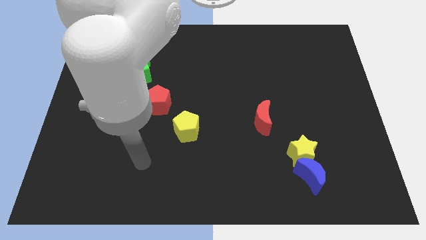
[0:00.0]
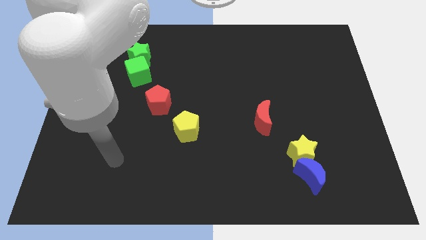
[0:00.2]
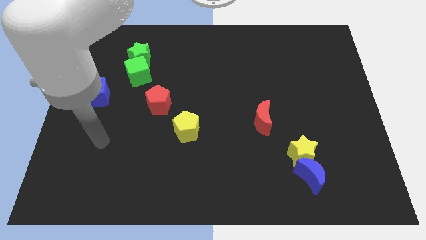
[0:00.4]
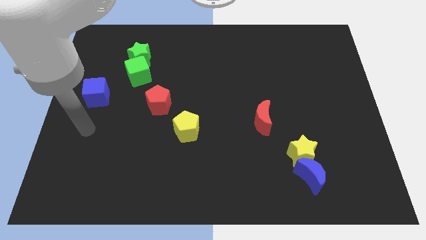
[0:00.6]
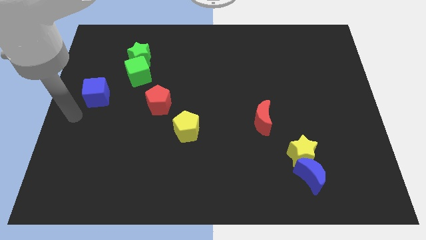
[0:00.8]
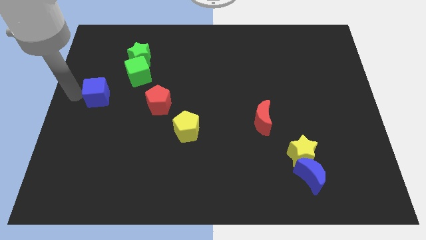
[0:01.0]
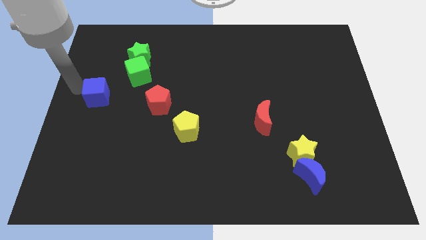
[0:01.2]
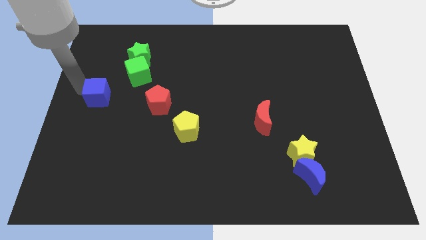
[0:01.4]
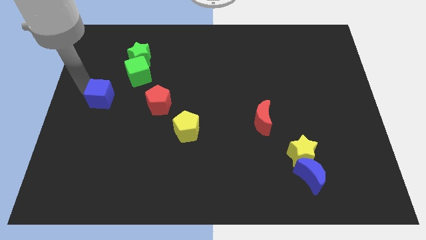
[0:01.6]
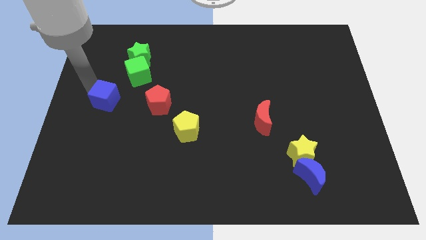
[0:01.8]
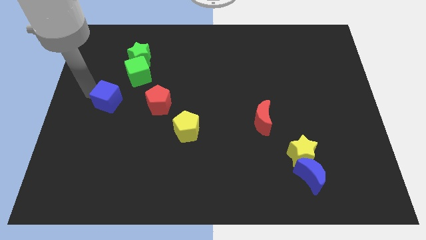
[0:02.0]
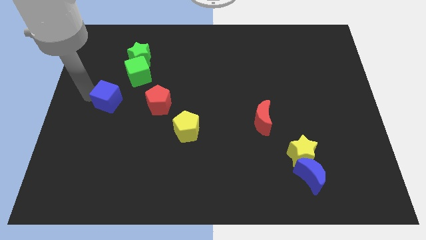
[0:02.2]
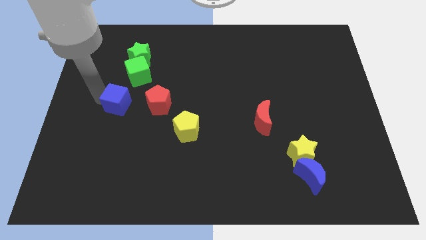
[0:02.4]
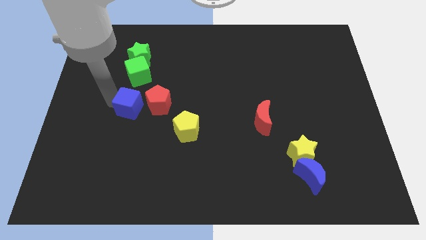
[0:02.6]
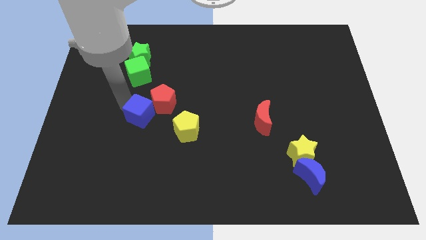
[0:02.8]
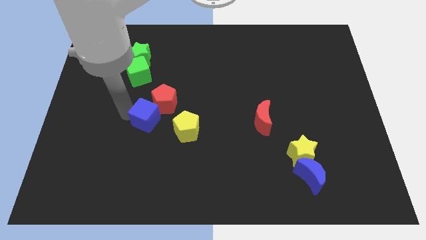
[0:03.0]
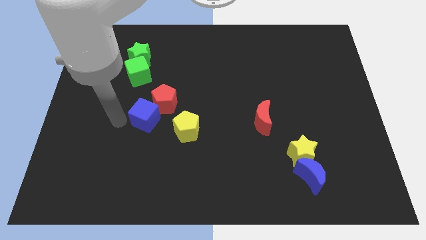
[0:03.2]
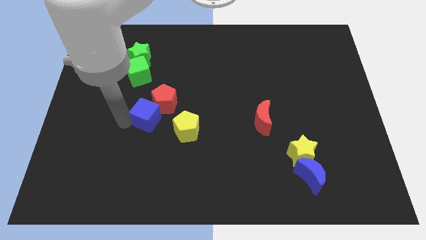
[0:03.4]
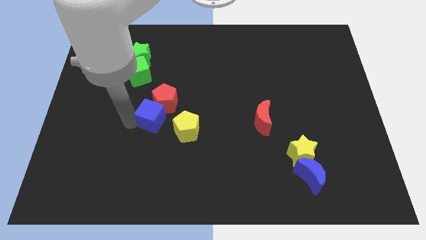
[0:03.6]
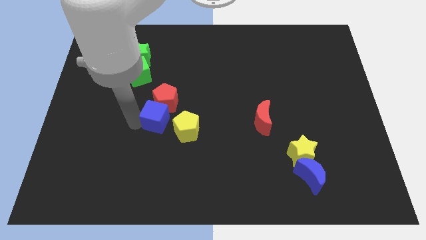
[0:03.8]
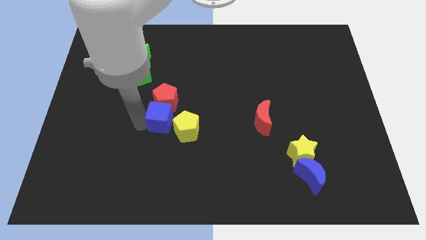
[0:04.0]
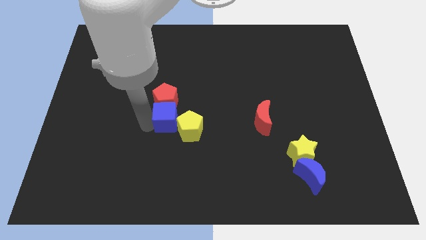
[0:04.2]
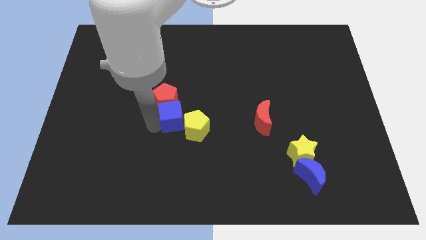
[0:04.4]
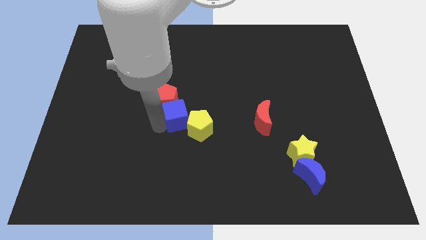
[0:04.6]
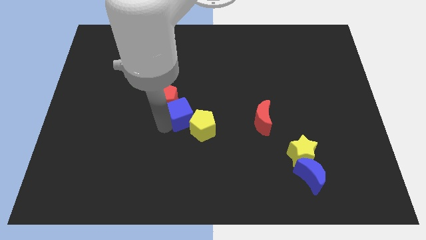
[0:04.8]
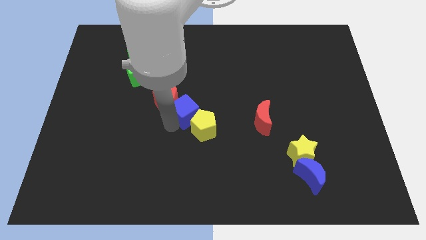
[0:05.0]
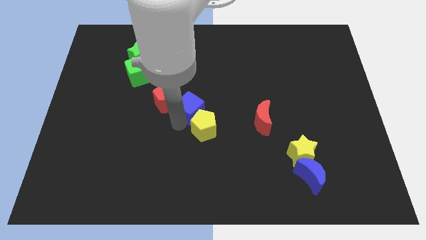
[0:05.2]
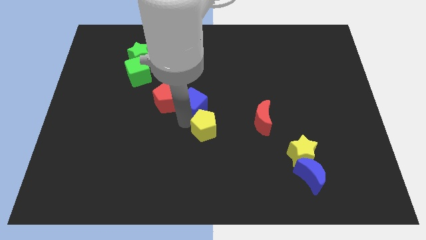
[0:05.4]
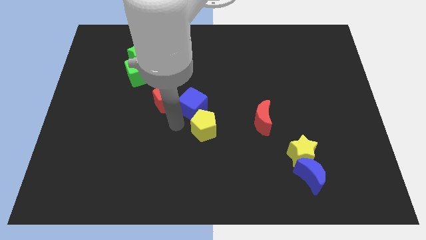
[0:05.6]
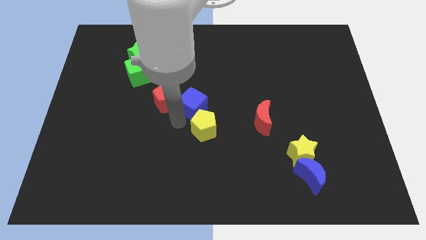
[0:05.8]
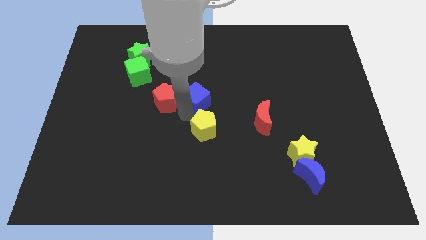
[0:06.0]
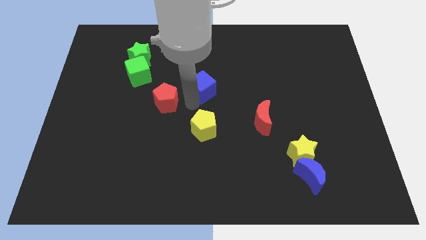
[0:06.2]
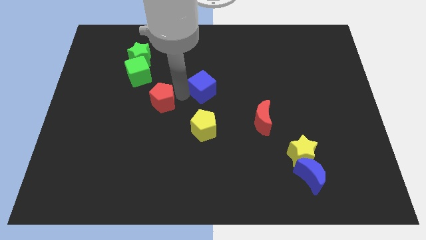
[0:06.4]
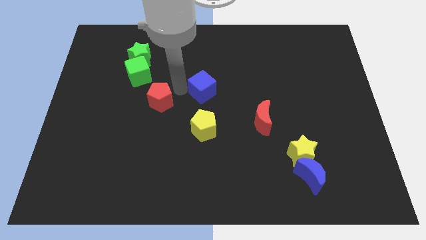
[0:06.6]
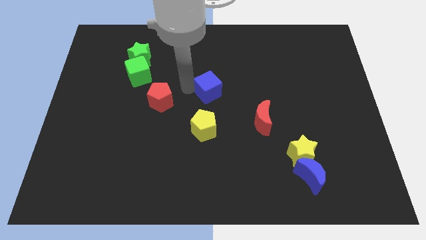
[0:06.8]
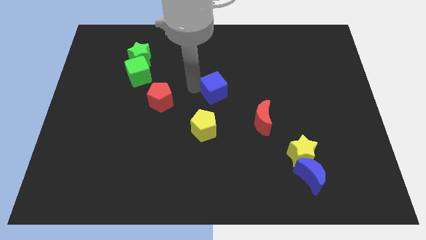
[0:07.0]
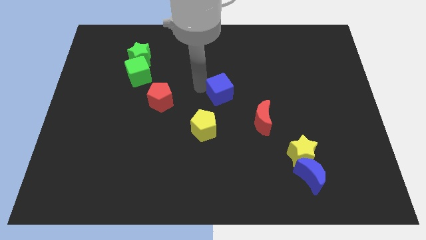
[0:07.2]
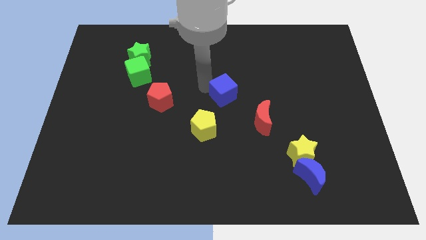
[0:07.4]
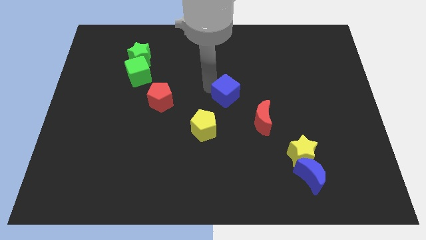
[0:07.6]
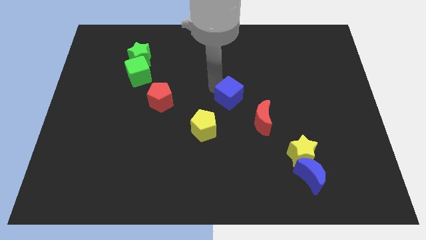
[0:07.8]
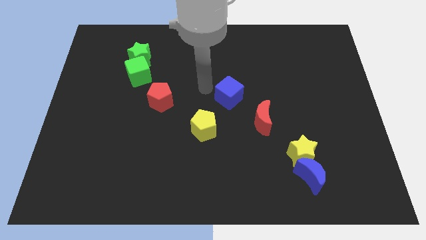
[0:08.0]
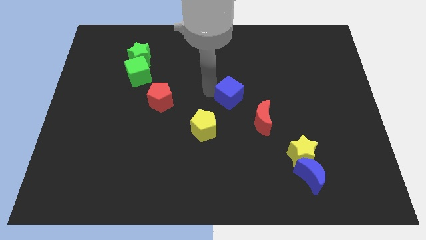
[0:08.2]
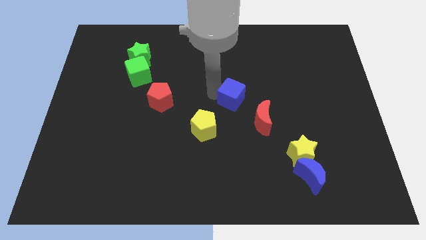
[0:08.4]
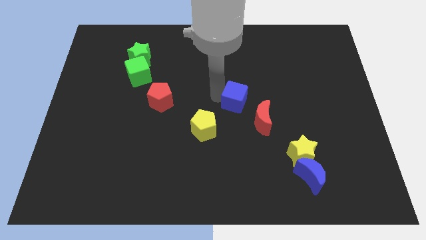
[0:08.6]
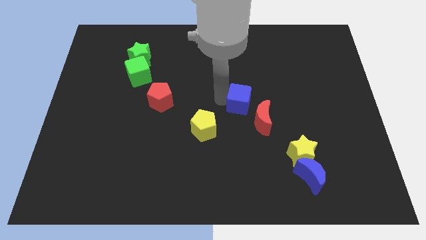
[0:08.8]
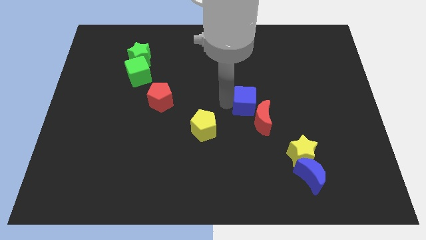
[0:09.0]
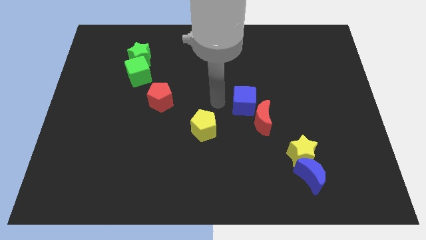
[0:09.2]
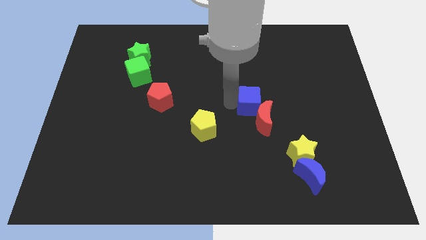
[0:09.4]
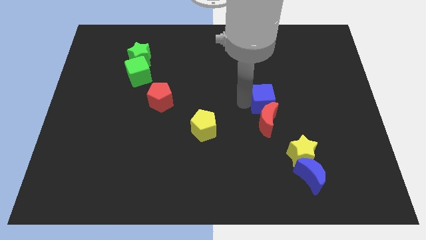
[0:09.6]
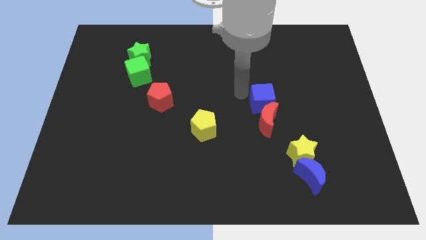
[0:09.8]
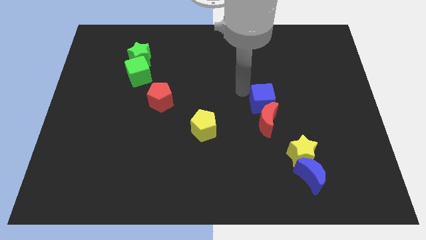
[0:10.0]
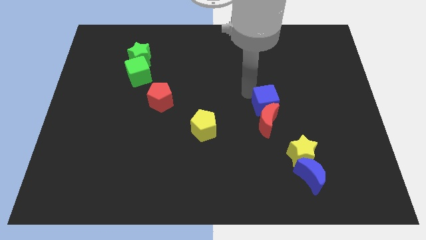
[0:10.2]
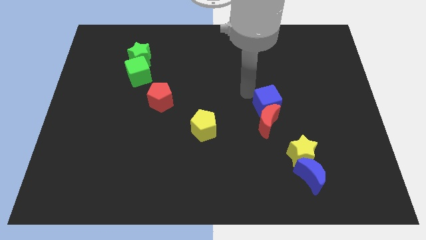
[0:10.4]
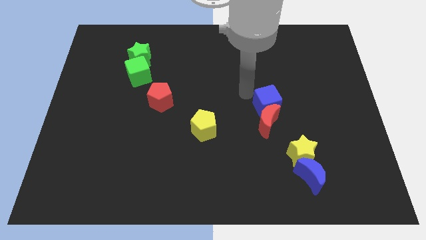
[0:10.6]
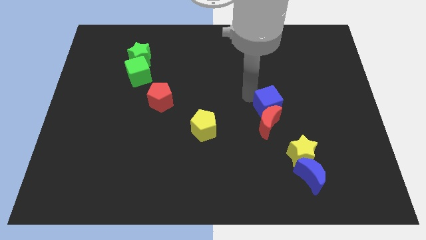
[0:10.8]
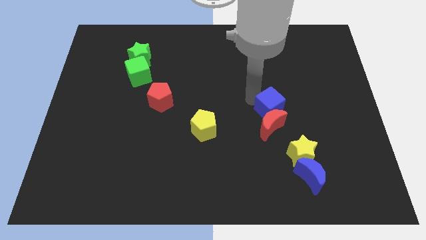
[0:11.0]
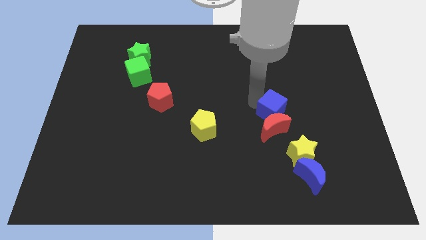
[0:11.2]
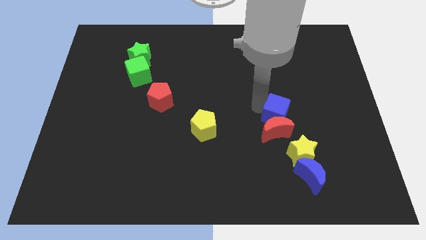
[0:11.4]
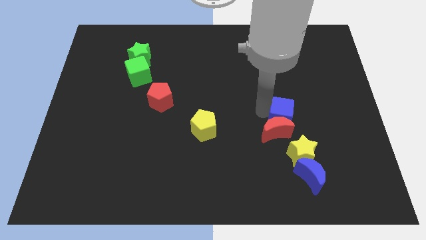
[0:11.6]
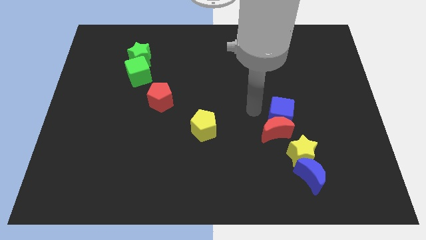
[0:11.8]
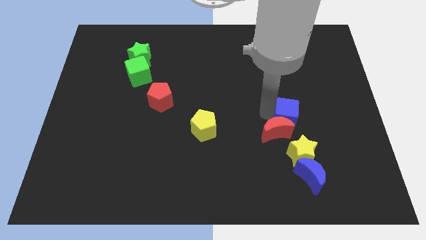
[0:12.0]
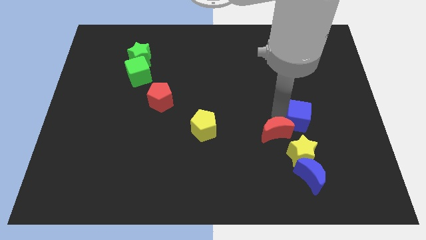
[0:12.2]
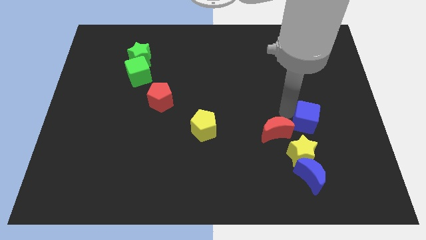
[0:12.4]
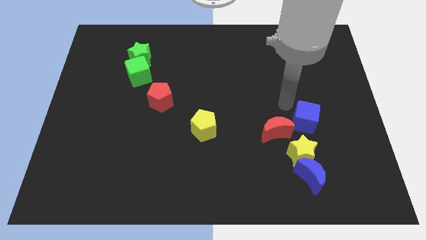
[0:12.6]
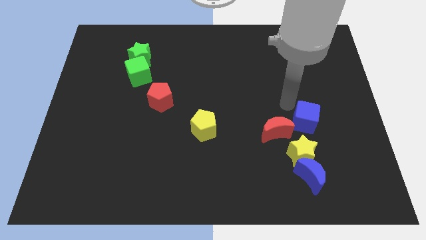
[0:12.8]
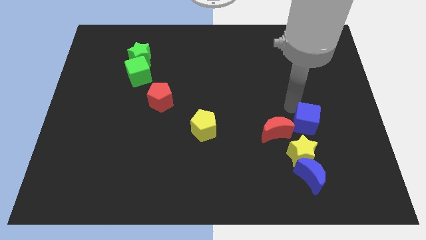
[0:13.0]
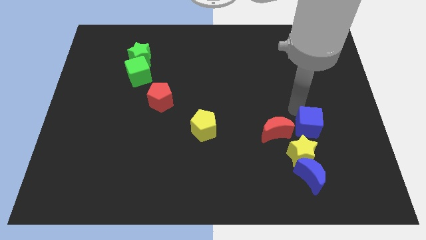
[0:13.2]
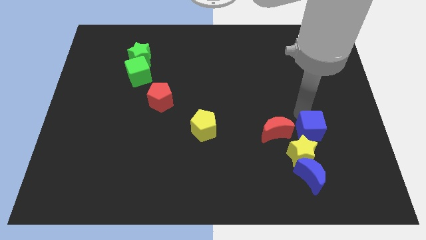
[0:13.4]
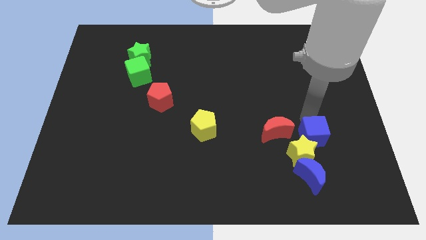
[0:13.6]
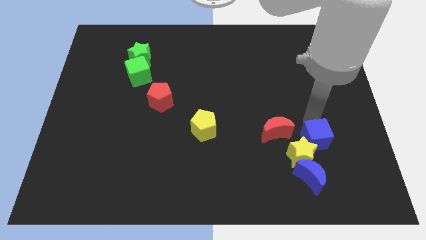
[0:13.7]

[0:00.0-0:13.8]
move the blue cube right of the yellow star

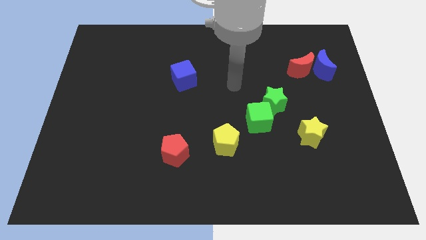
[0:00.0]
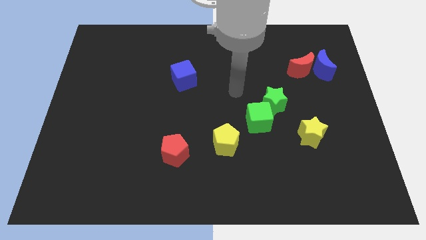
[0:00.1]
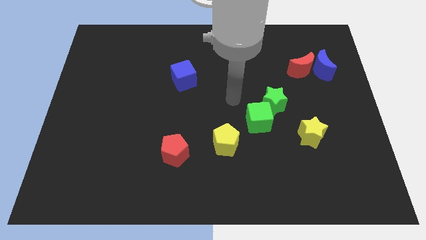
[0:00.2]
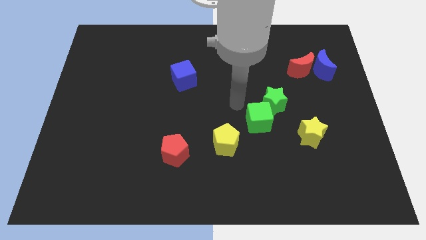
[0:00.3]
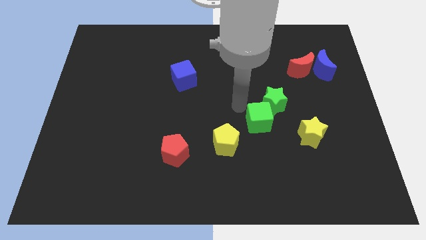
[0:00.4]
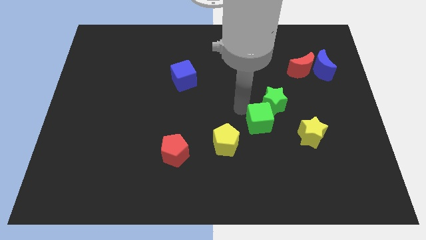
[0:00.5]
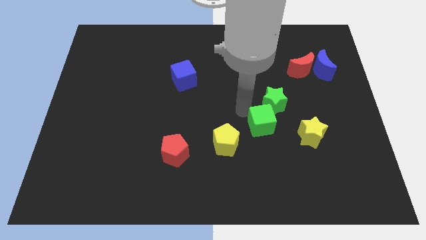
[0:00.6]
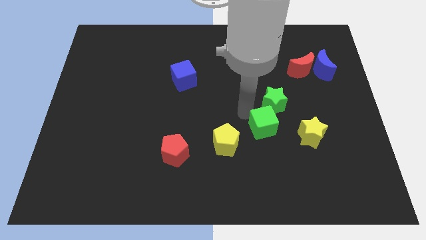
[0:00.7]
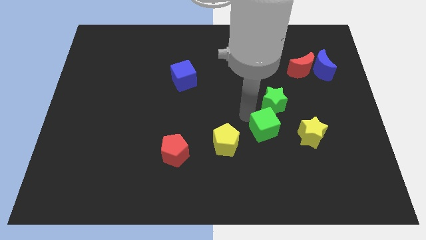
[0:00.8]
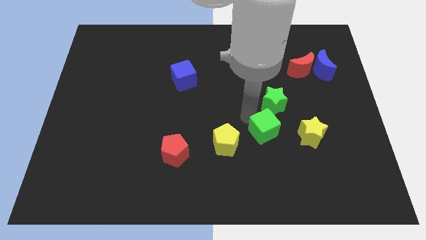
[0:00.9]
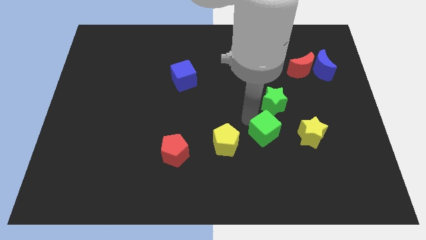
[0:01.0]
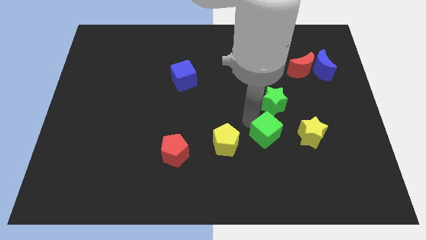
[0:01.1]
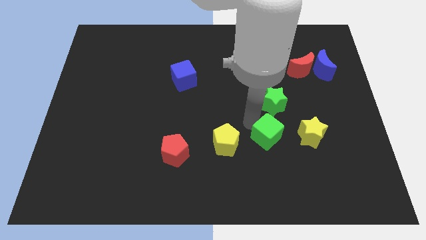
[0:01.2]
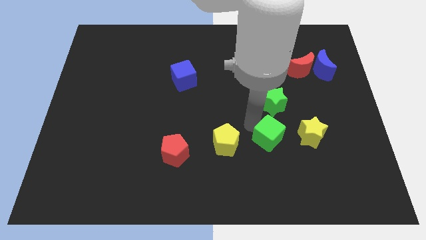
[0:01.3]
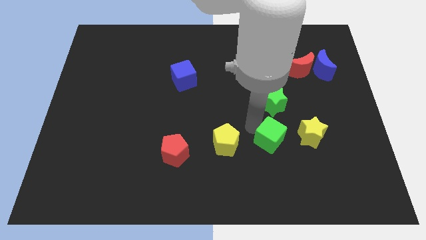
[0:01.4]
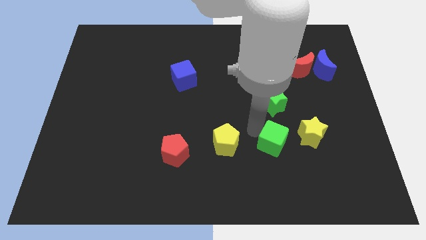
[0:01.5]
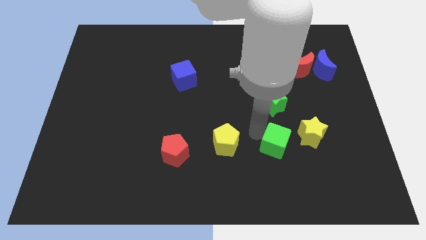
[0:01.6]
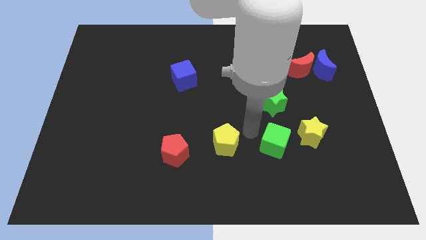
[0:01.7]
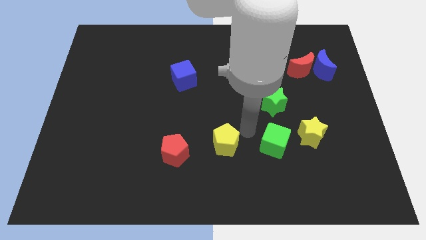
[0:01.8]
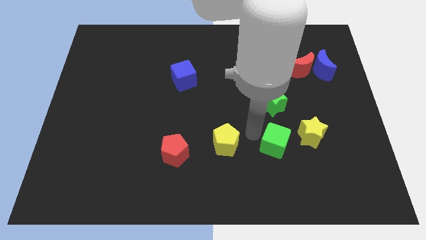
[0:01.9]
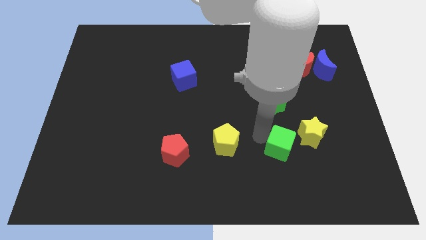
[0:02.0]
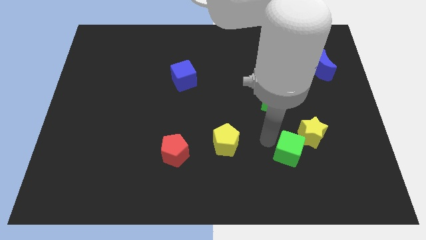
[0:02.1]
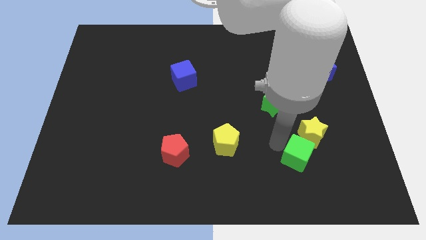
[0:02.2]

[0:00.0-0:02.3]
push the green cube to the bottom of the yellow star
